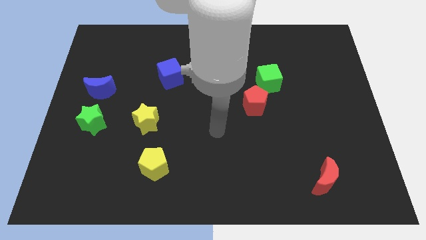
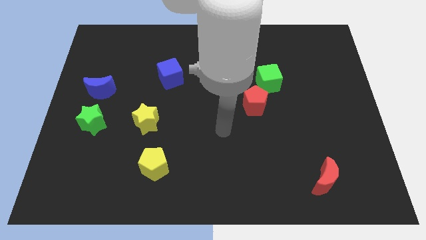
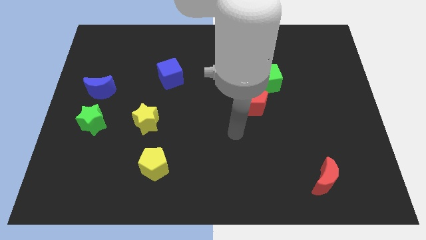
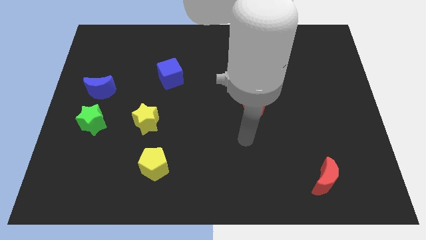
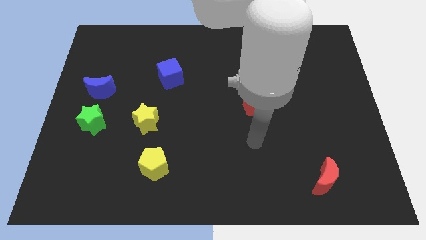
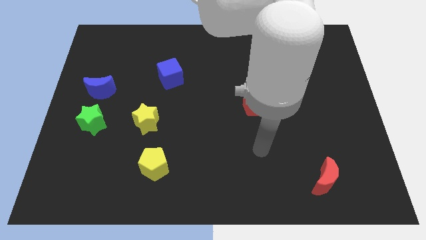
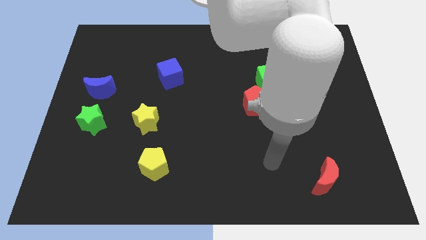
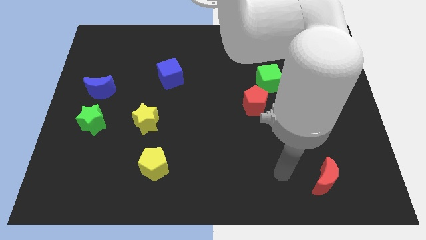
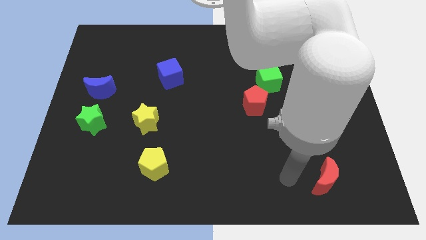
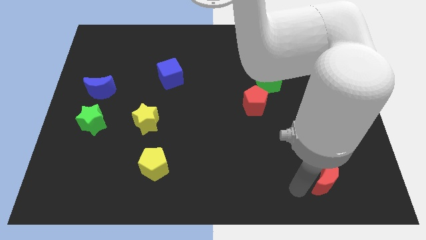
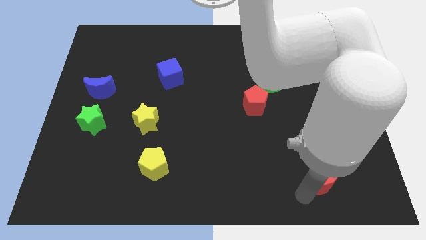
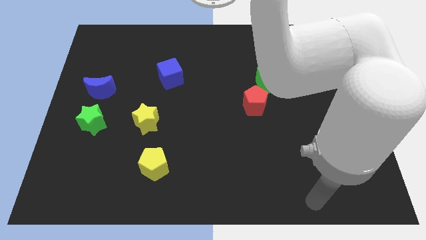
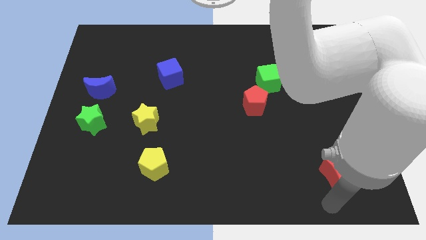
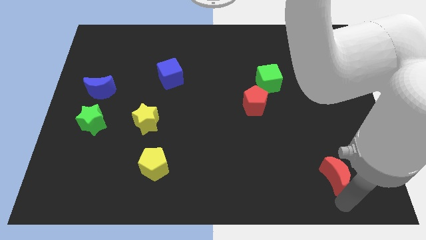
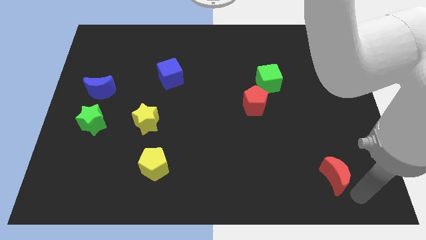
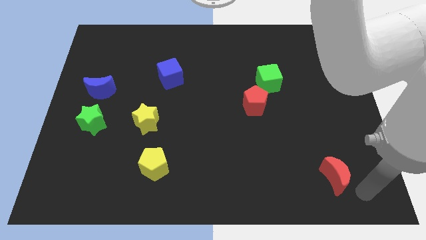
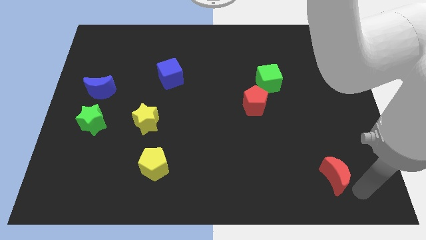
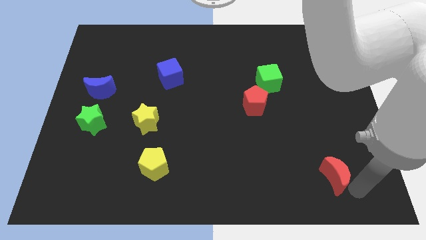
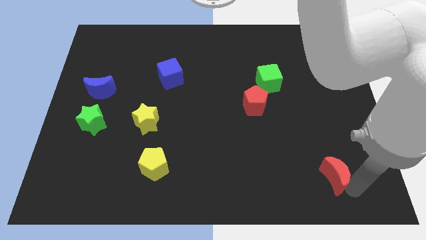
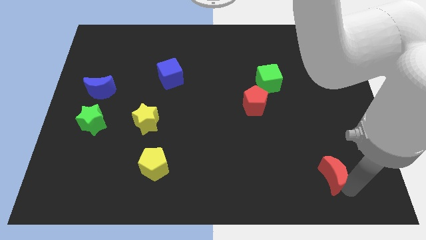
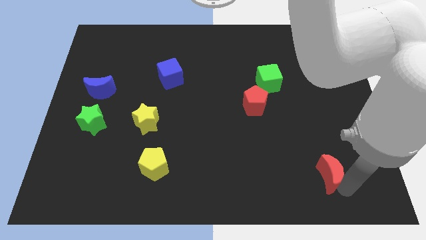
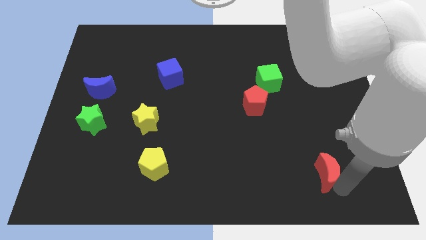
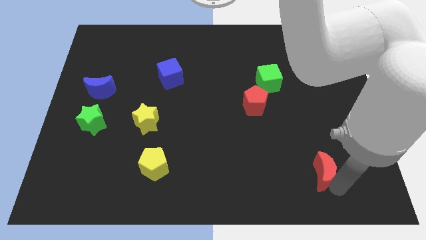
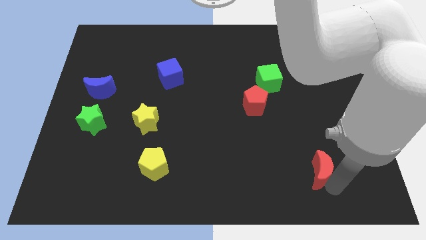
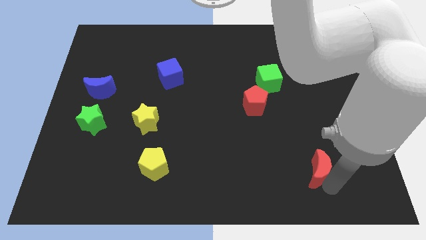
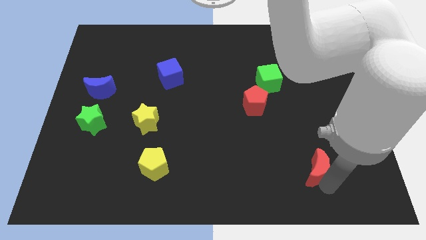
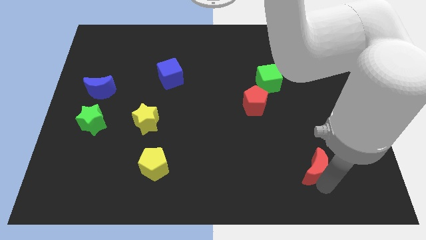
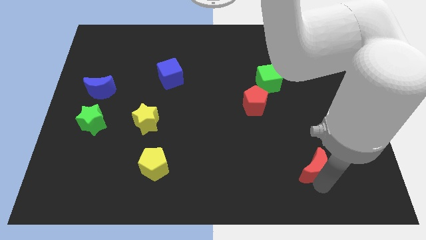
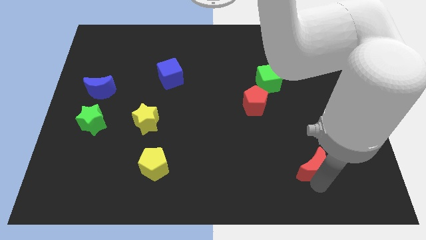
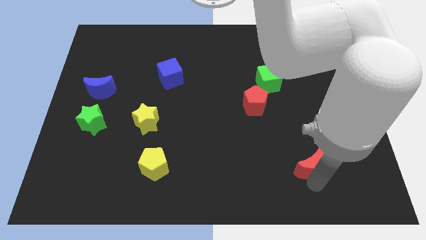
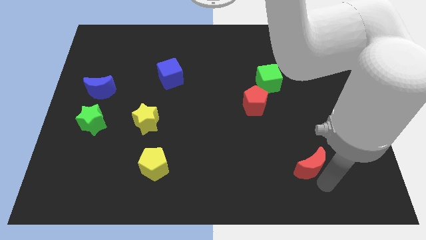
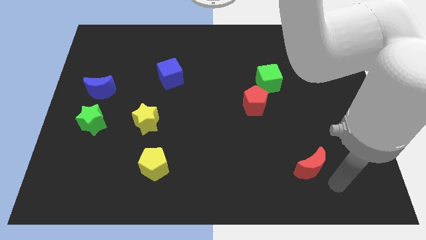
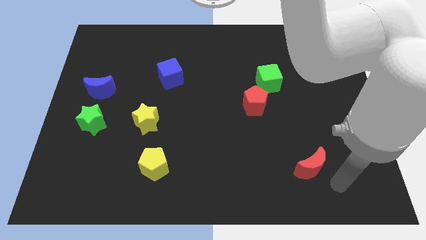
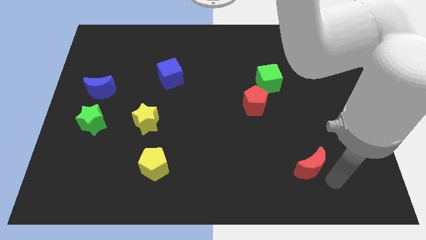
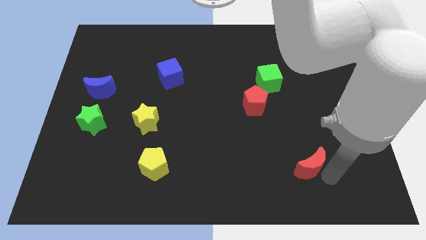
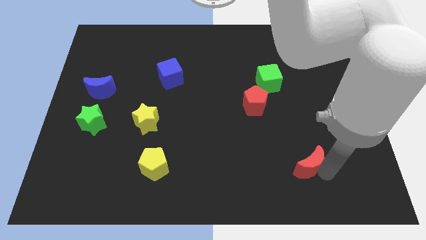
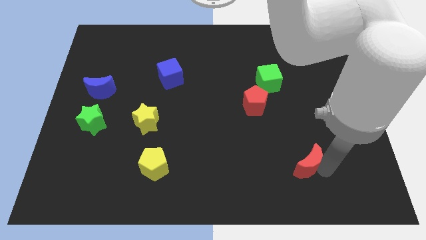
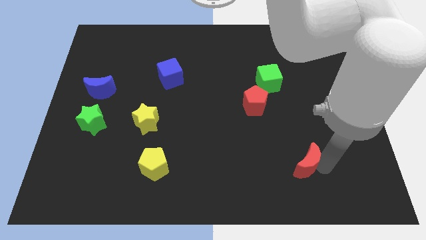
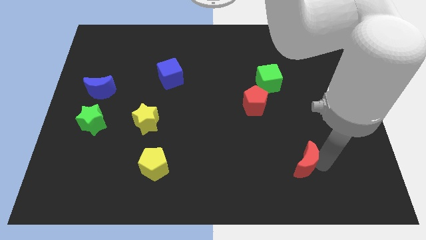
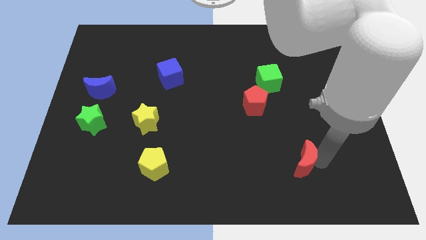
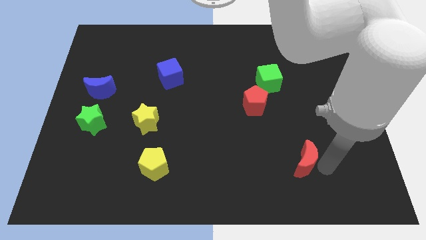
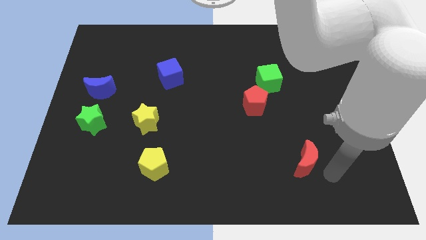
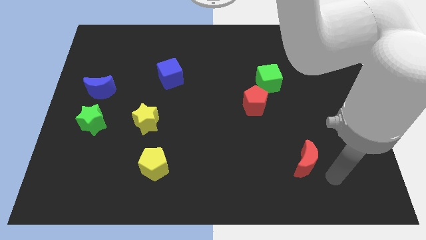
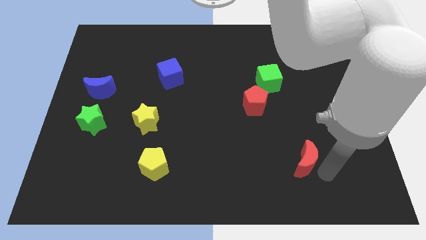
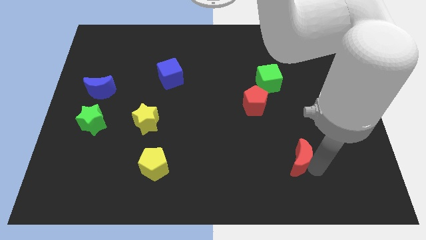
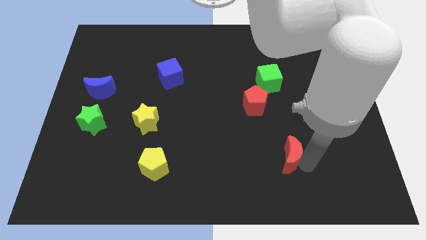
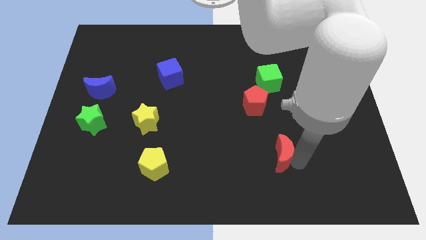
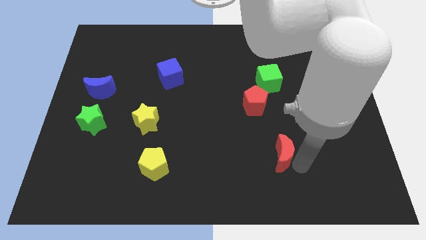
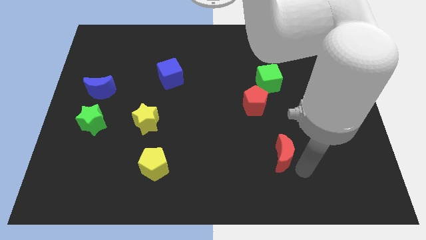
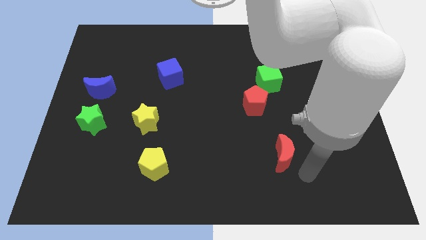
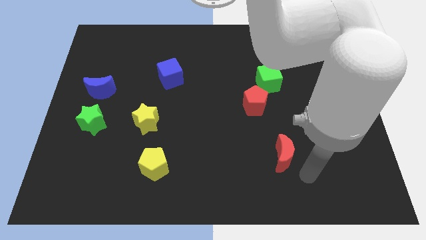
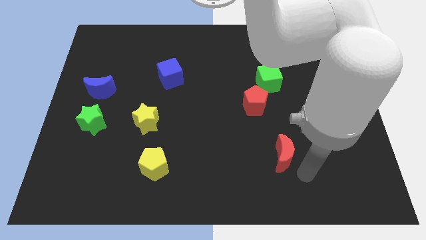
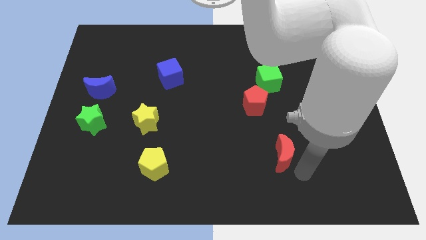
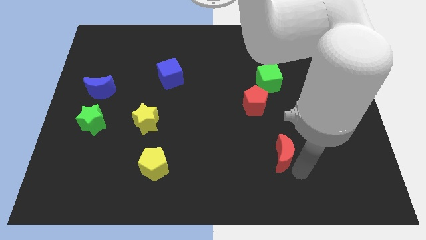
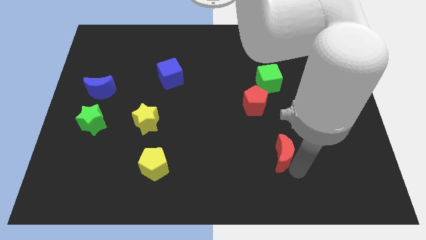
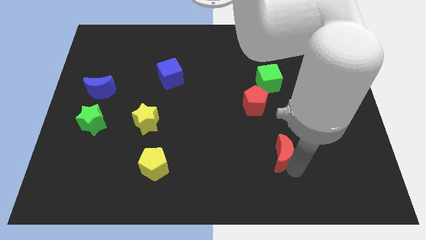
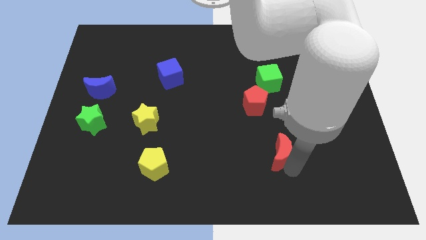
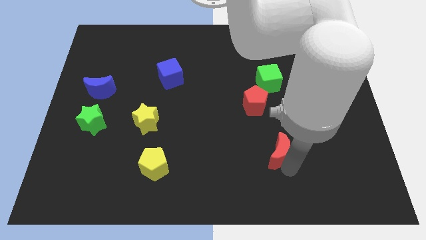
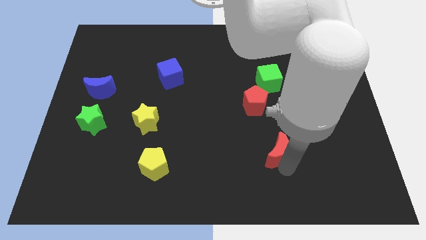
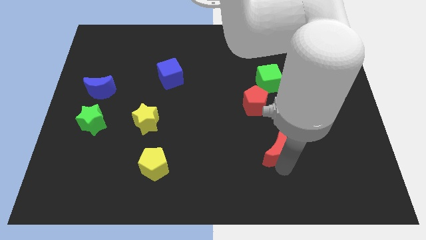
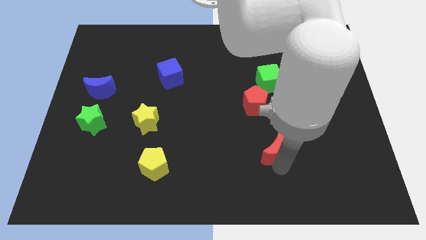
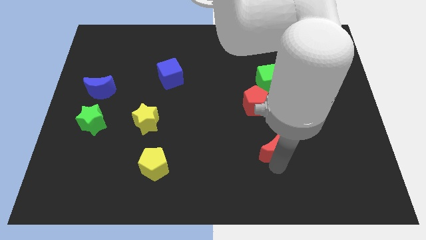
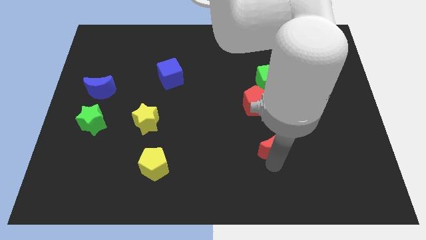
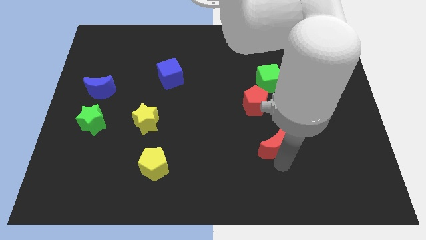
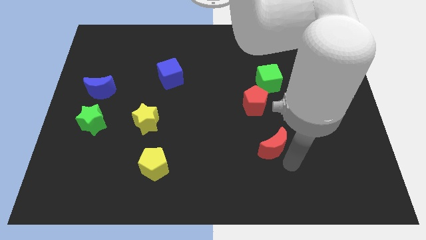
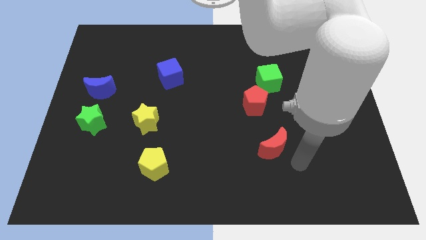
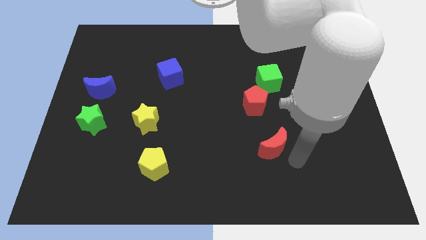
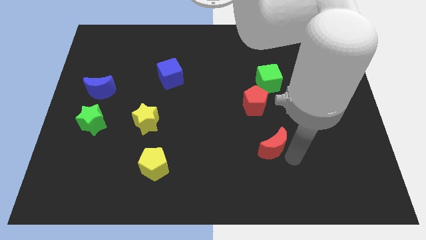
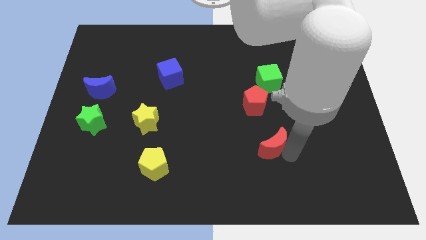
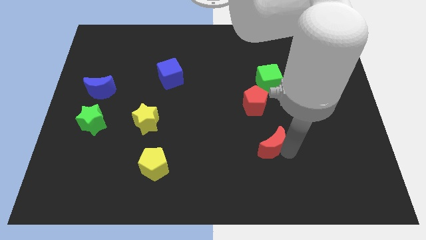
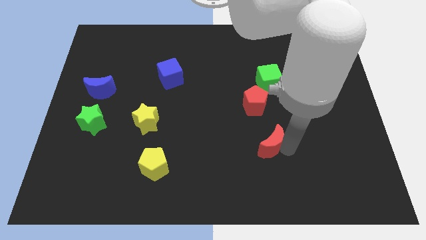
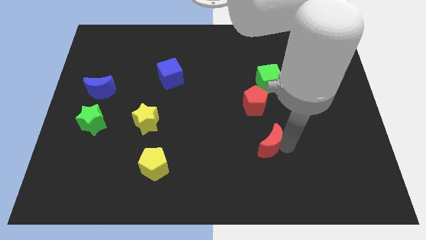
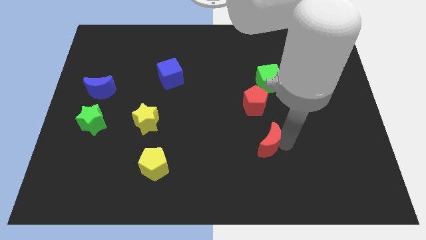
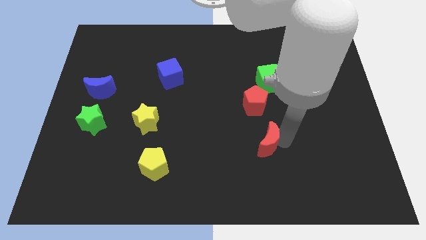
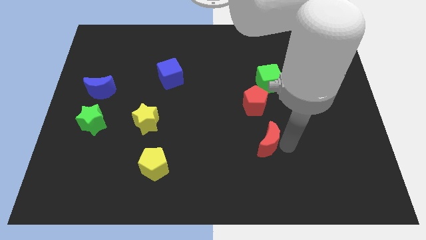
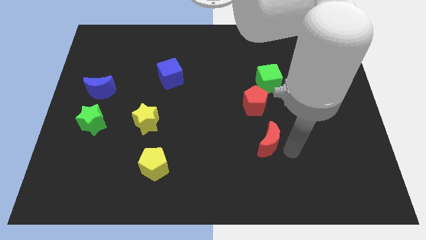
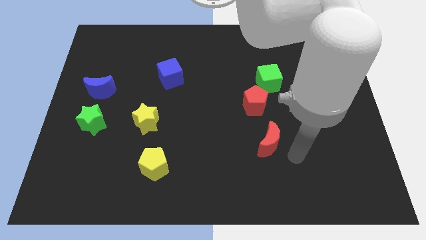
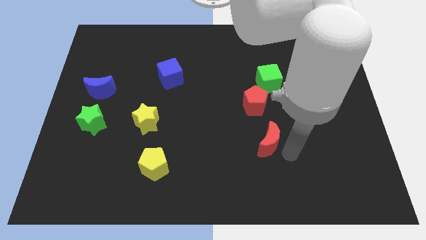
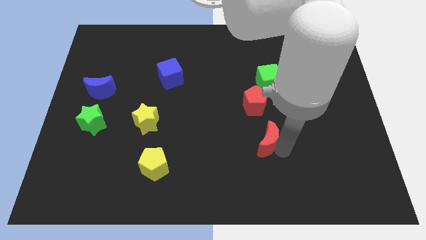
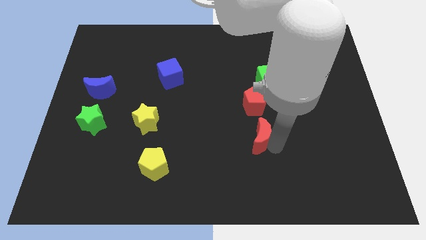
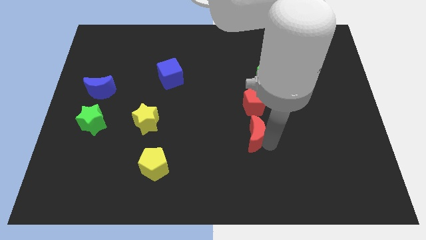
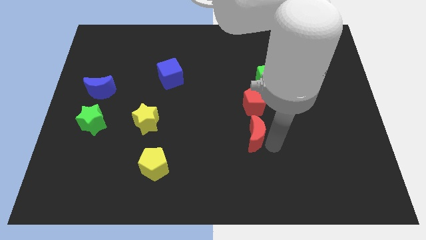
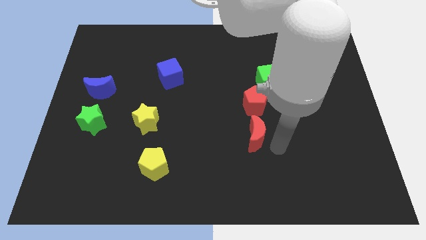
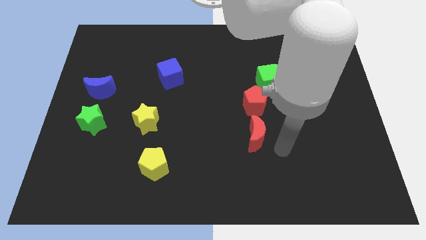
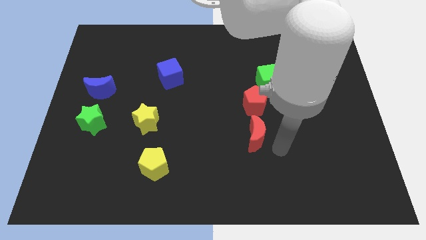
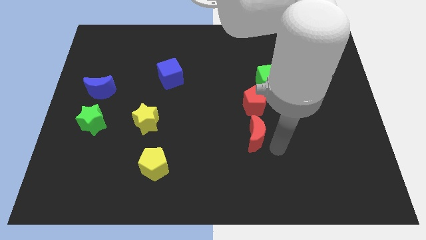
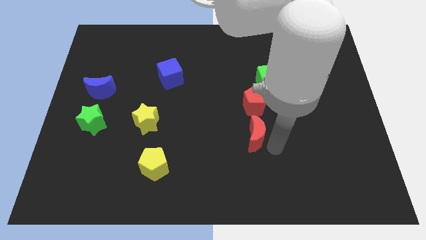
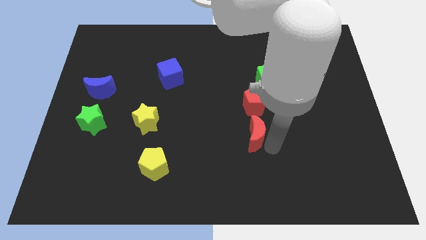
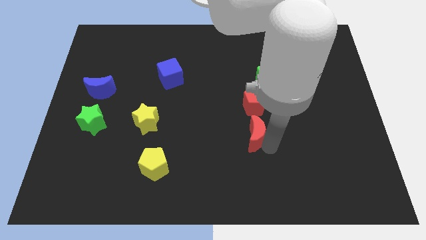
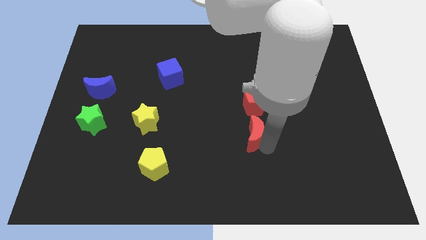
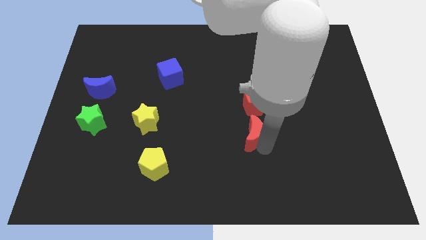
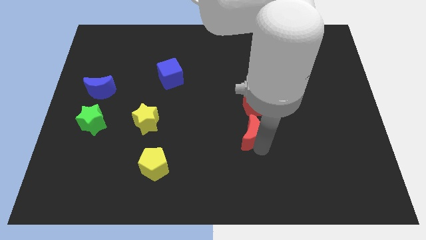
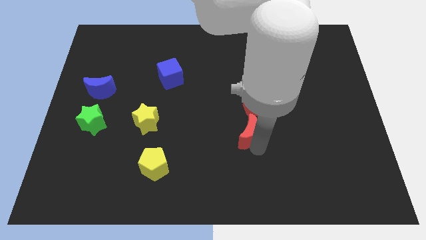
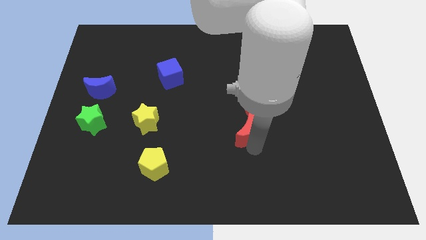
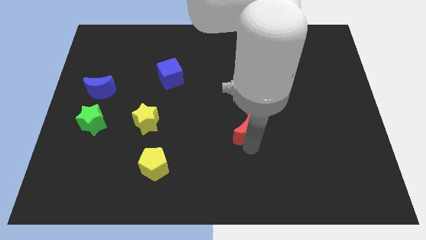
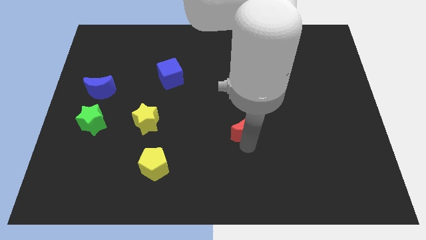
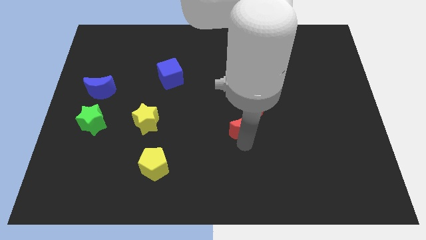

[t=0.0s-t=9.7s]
push the red moon upwards and then left
